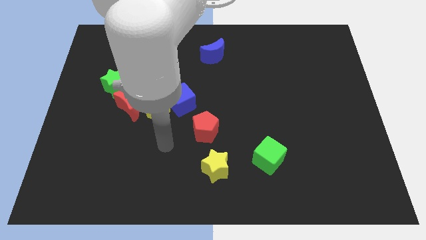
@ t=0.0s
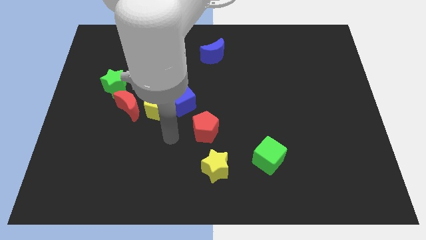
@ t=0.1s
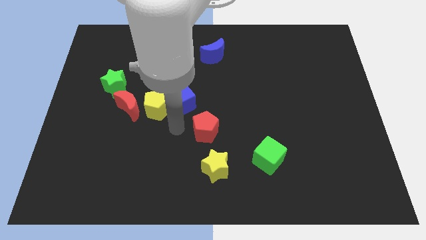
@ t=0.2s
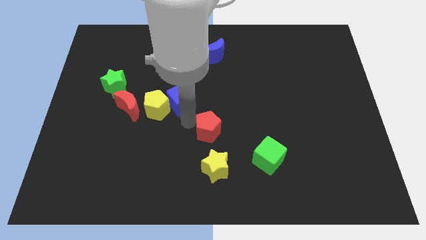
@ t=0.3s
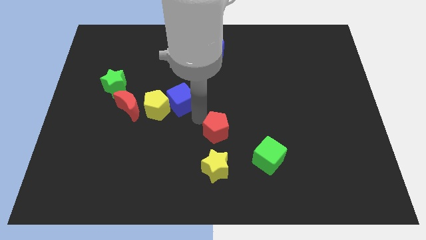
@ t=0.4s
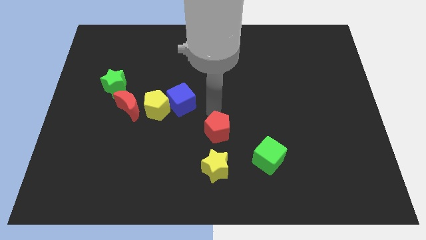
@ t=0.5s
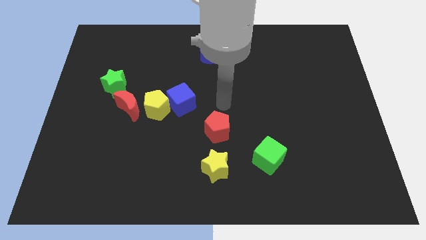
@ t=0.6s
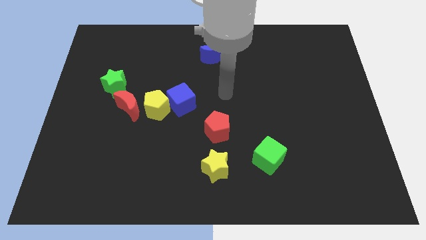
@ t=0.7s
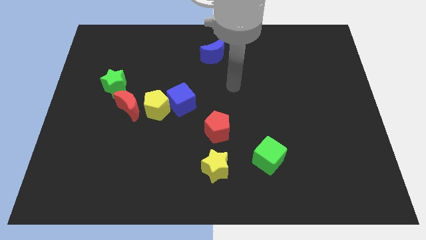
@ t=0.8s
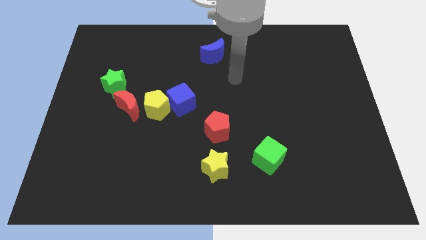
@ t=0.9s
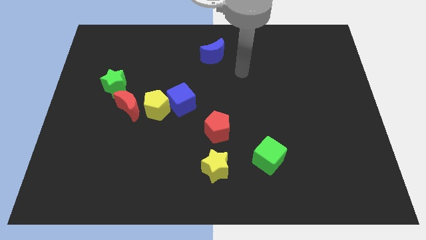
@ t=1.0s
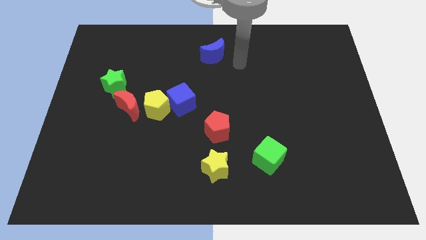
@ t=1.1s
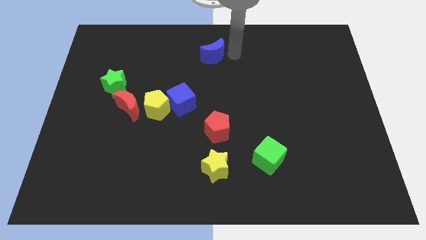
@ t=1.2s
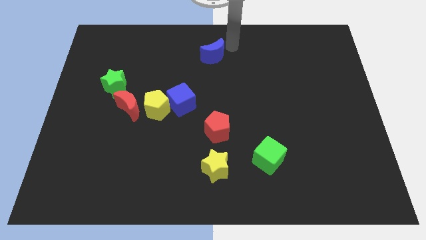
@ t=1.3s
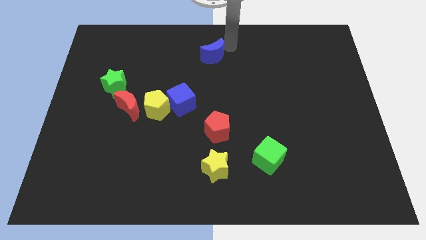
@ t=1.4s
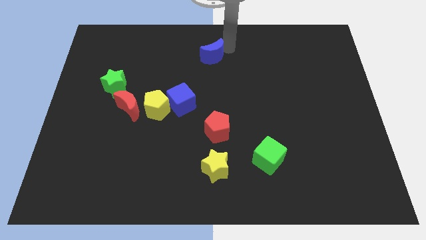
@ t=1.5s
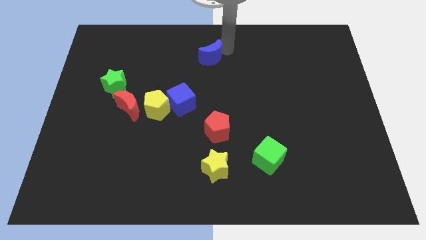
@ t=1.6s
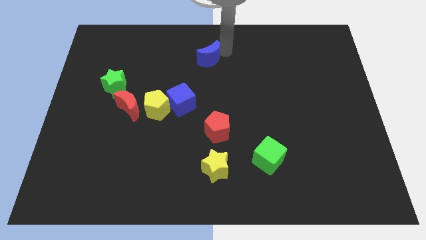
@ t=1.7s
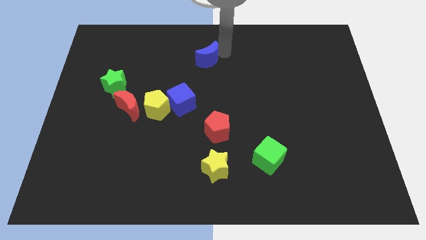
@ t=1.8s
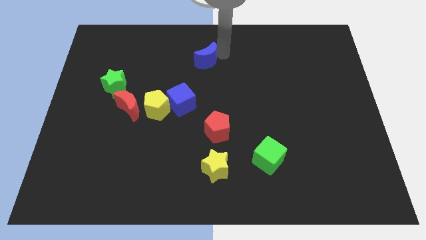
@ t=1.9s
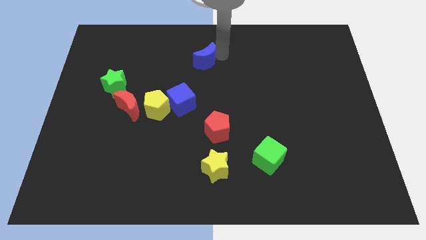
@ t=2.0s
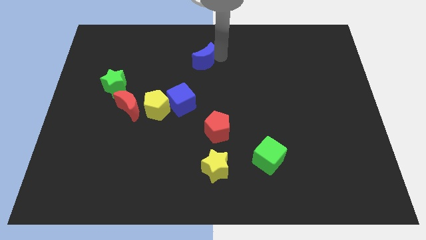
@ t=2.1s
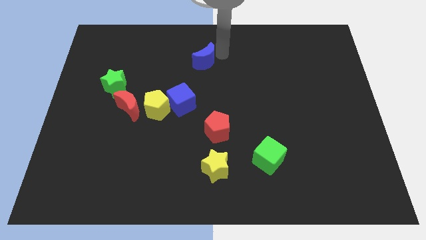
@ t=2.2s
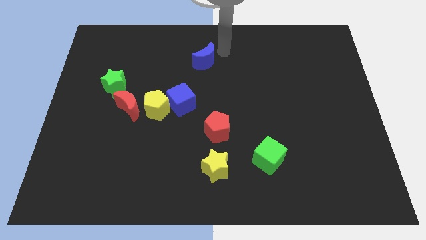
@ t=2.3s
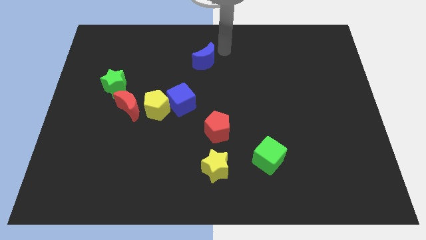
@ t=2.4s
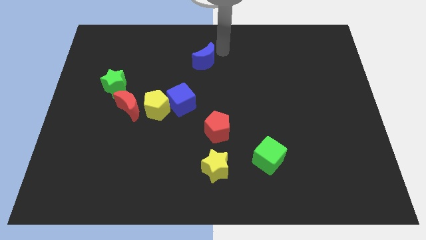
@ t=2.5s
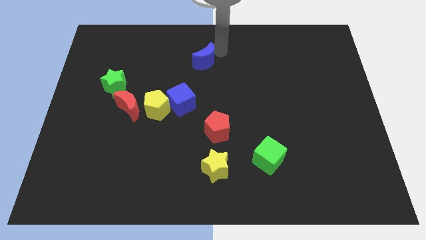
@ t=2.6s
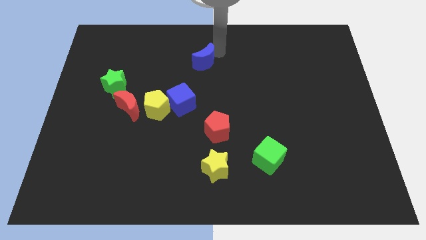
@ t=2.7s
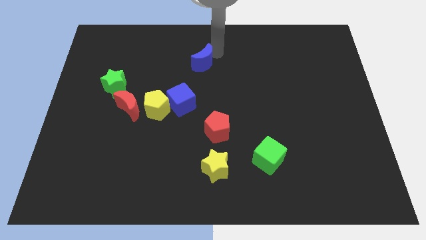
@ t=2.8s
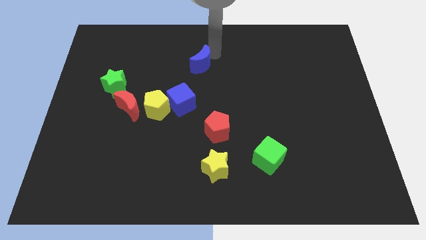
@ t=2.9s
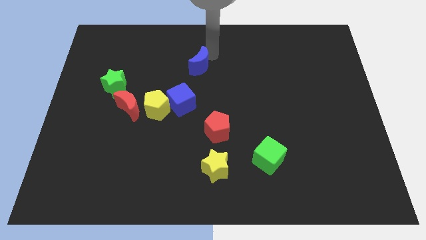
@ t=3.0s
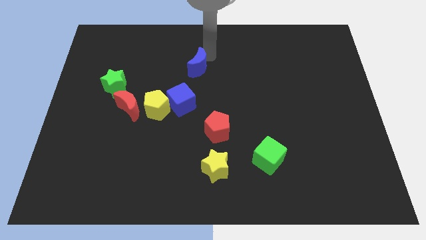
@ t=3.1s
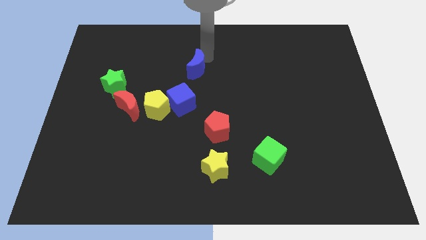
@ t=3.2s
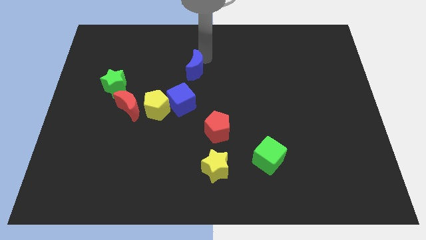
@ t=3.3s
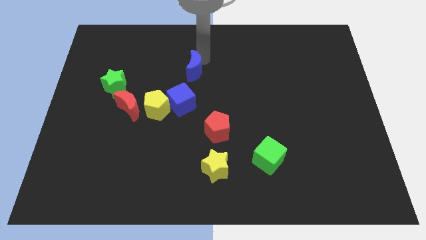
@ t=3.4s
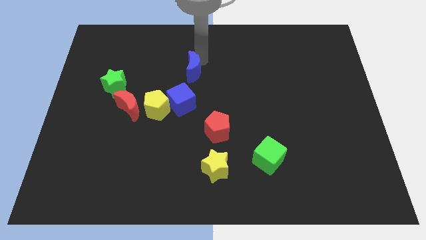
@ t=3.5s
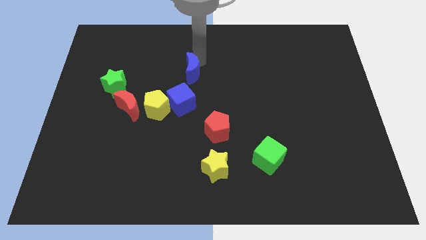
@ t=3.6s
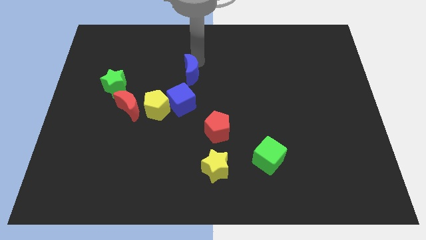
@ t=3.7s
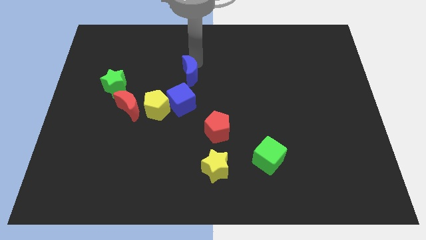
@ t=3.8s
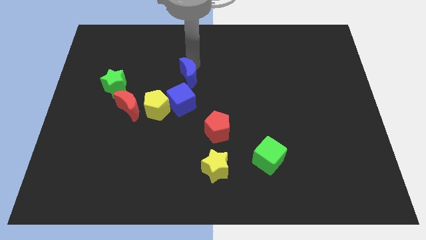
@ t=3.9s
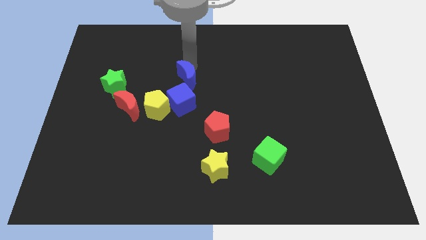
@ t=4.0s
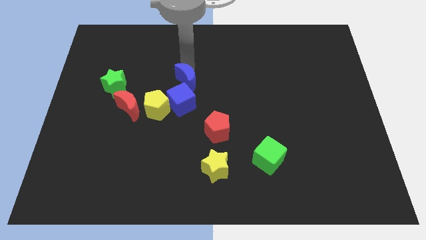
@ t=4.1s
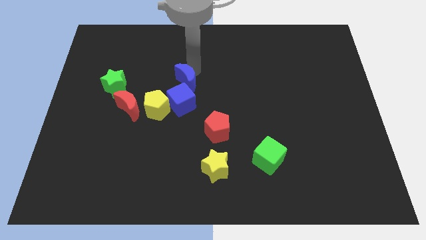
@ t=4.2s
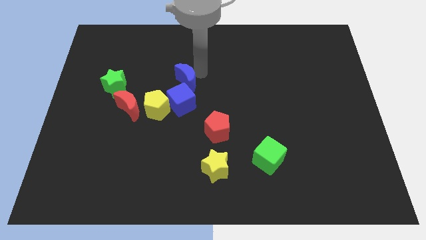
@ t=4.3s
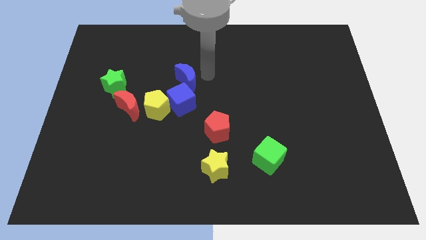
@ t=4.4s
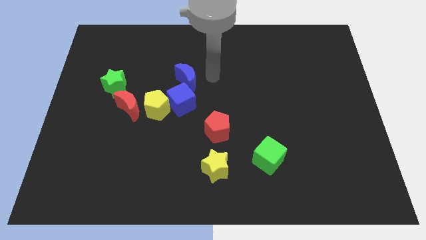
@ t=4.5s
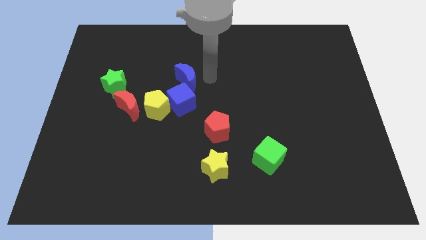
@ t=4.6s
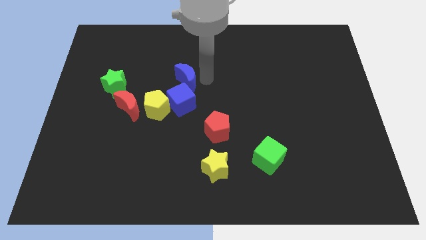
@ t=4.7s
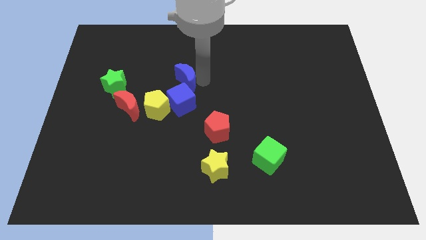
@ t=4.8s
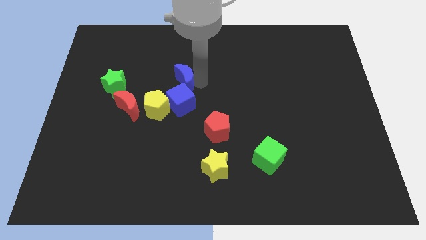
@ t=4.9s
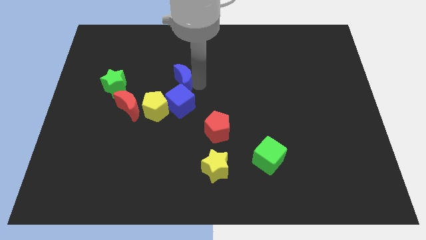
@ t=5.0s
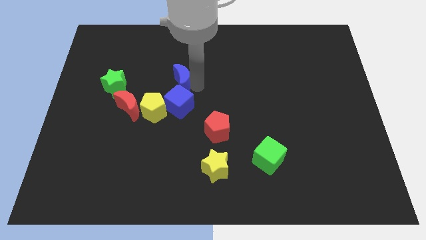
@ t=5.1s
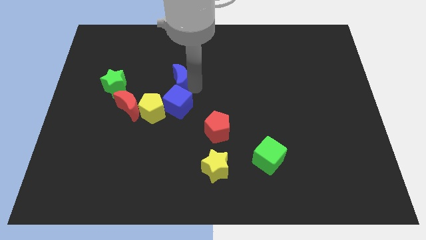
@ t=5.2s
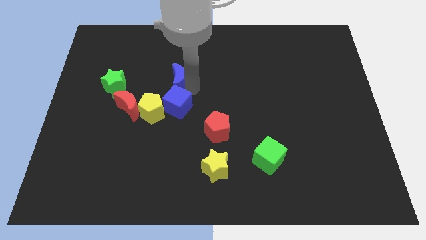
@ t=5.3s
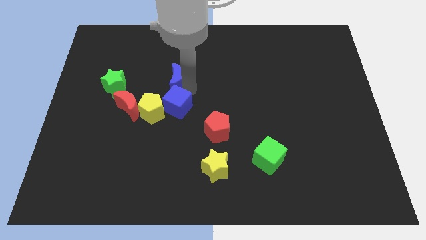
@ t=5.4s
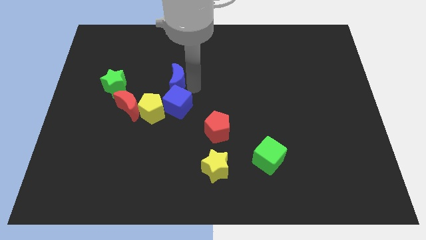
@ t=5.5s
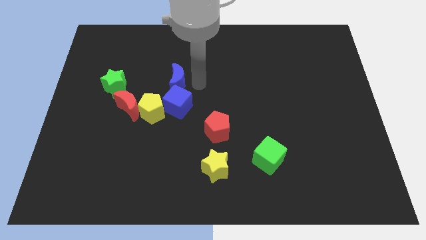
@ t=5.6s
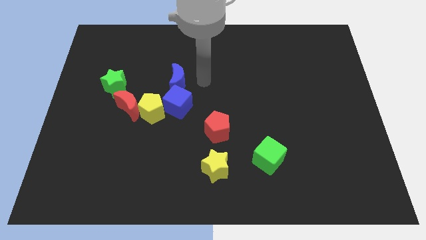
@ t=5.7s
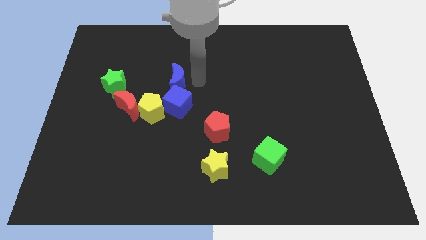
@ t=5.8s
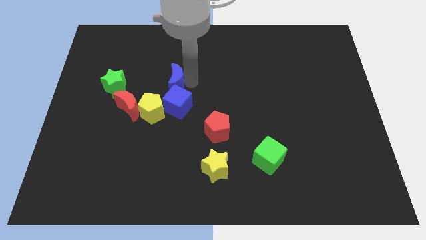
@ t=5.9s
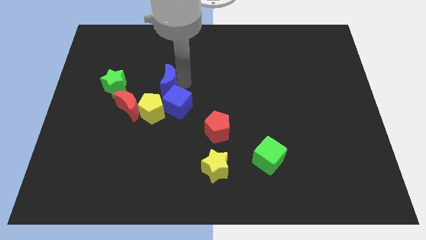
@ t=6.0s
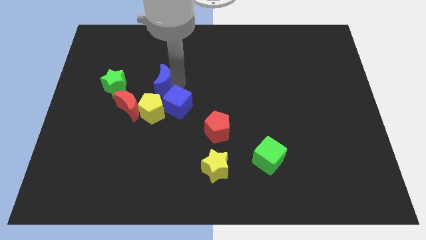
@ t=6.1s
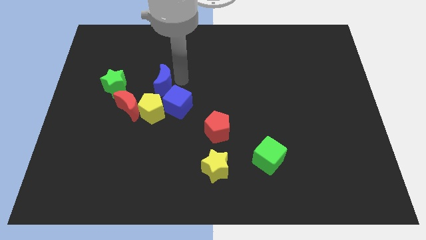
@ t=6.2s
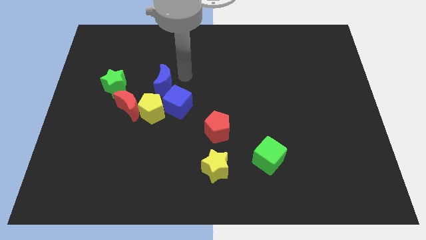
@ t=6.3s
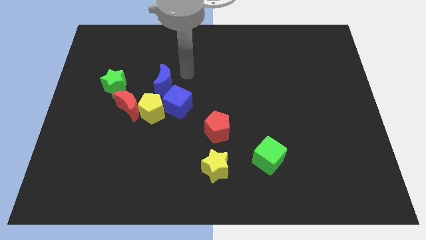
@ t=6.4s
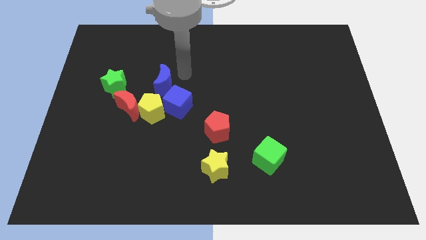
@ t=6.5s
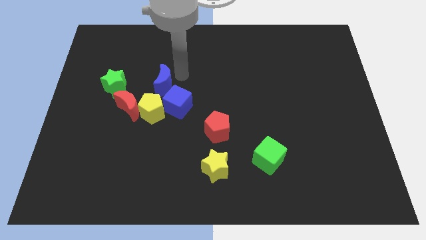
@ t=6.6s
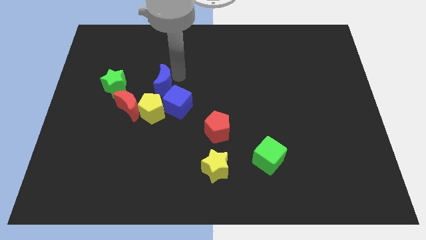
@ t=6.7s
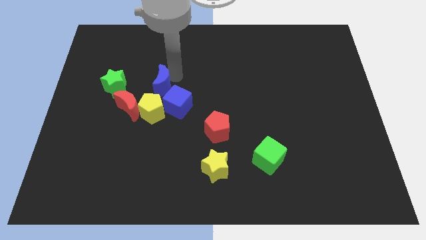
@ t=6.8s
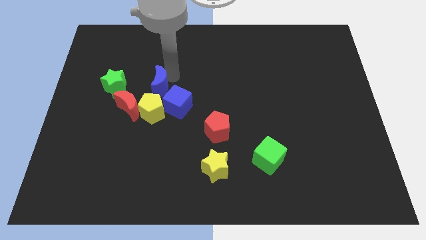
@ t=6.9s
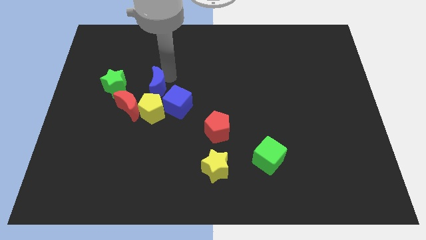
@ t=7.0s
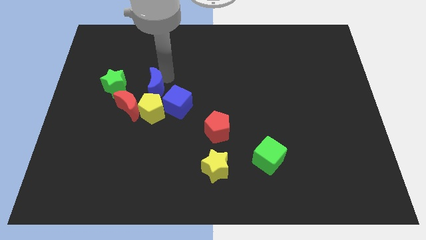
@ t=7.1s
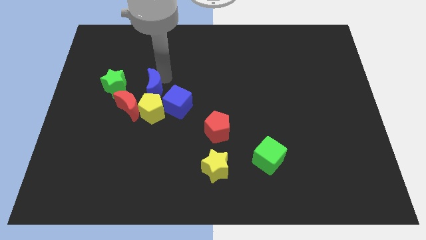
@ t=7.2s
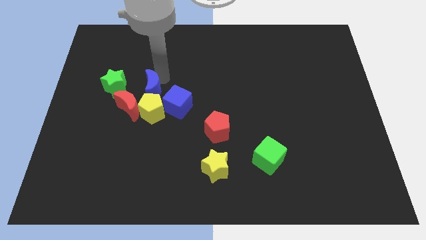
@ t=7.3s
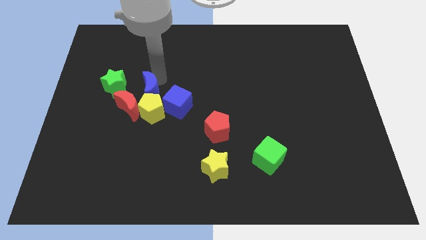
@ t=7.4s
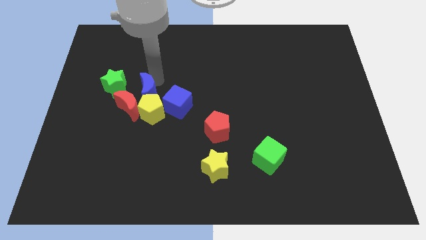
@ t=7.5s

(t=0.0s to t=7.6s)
push the blue moon towards the red moon
